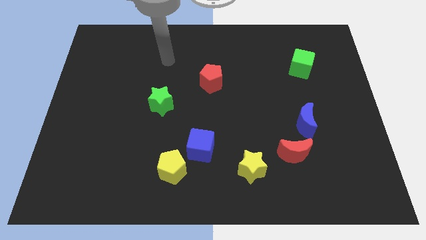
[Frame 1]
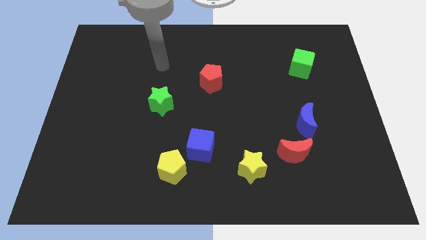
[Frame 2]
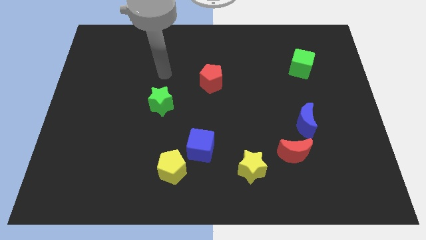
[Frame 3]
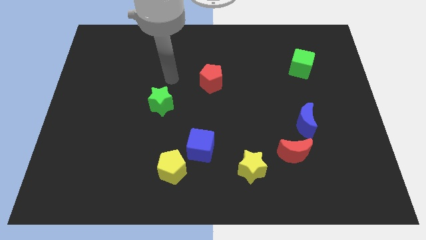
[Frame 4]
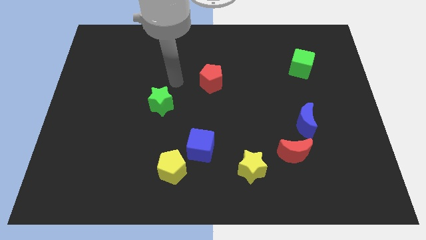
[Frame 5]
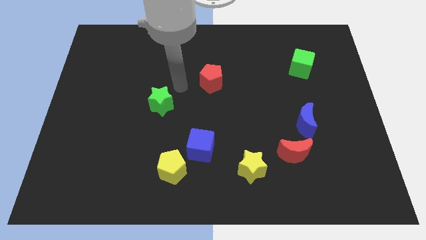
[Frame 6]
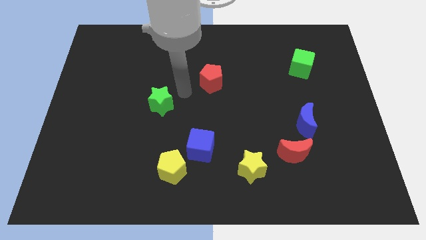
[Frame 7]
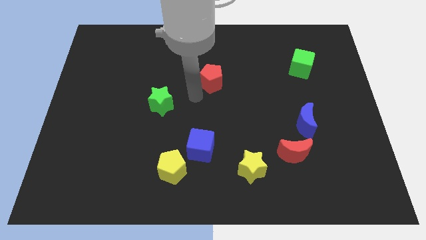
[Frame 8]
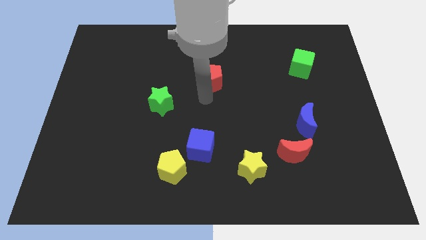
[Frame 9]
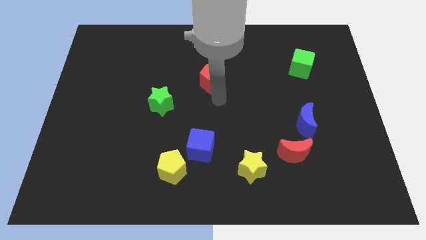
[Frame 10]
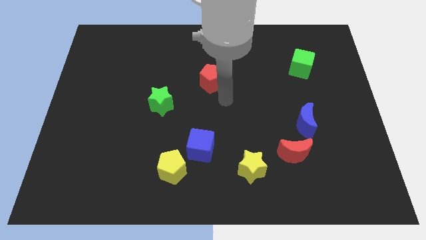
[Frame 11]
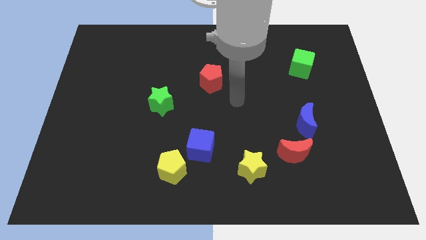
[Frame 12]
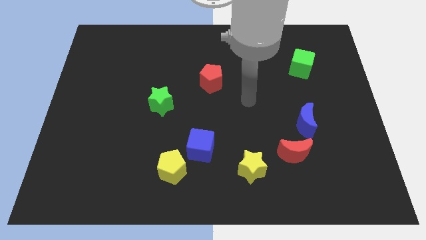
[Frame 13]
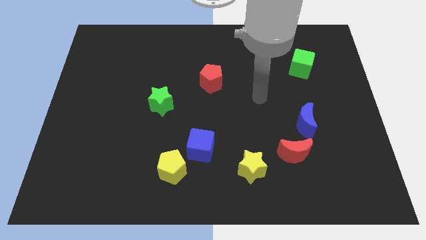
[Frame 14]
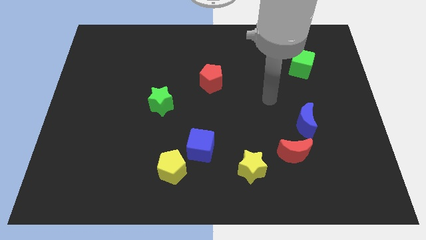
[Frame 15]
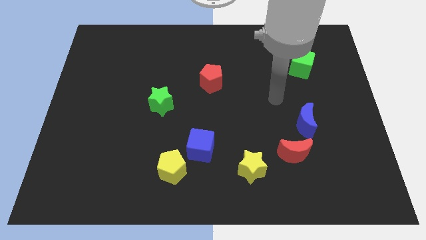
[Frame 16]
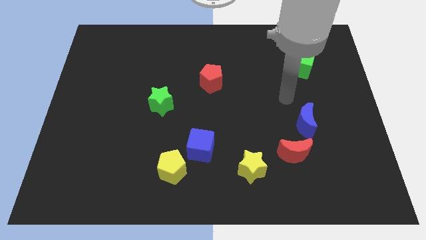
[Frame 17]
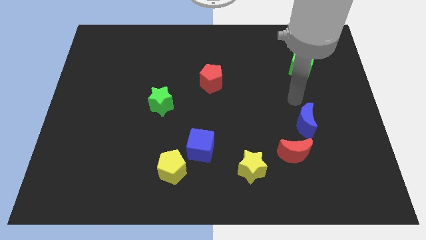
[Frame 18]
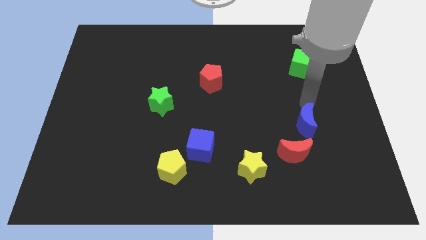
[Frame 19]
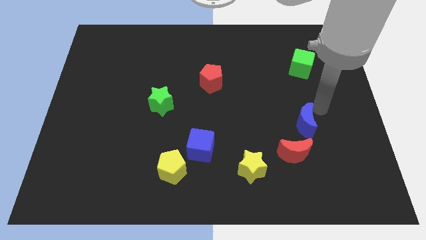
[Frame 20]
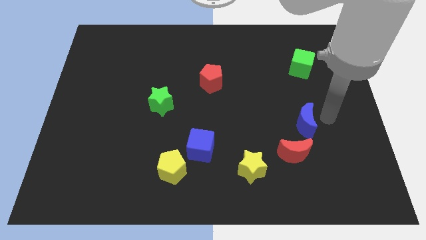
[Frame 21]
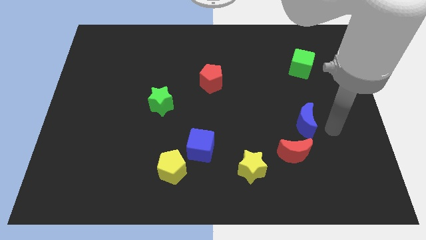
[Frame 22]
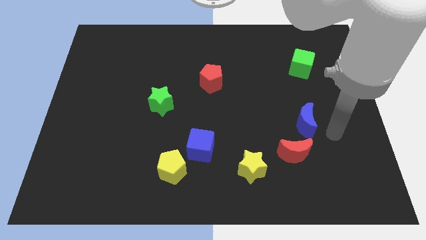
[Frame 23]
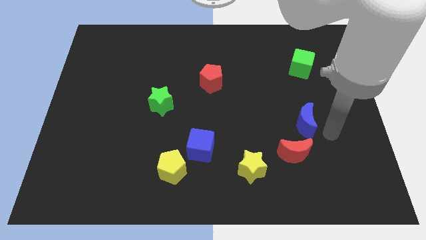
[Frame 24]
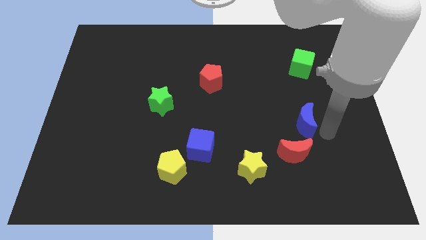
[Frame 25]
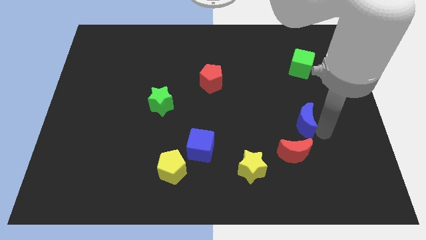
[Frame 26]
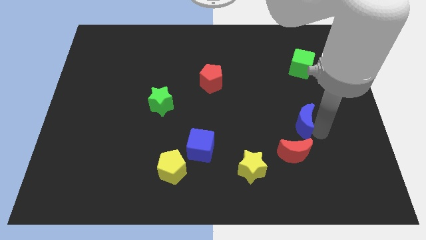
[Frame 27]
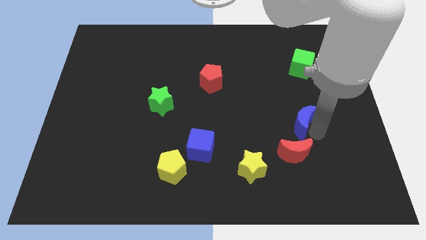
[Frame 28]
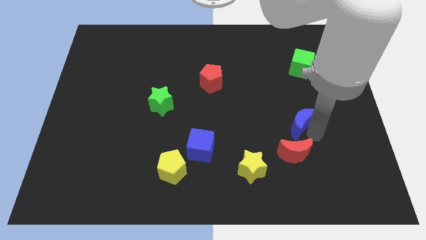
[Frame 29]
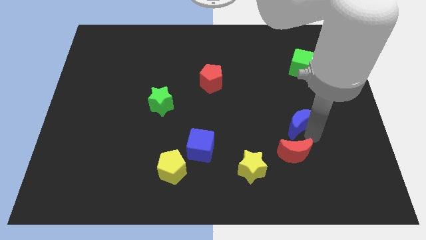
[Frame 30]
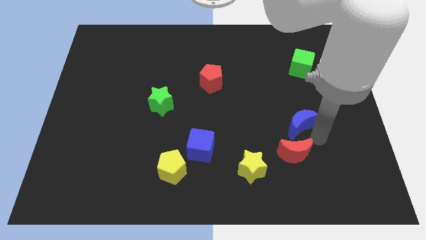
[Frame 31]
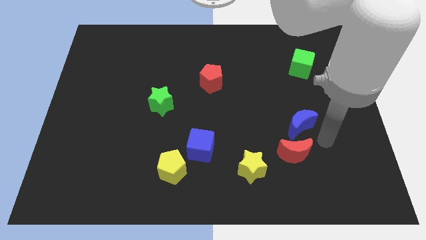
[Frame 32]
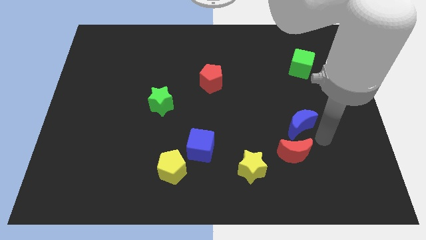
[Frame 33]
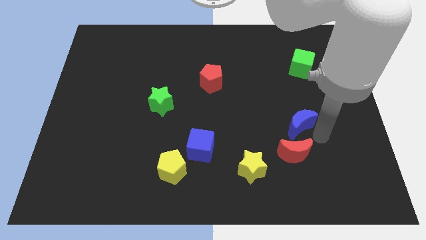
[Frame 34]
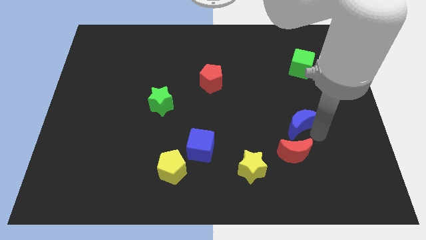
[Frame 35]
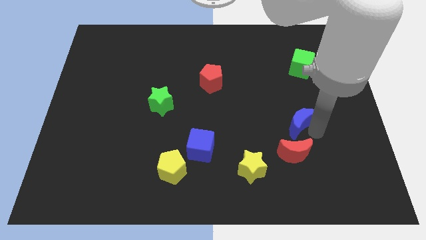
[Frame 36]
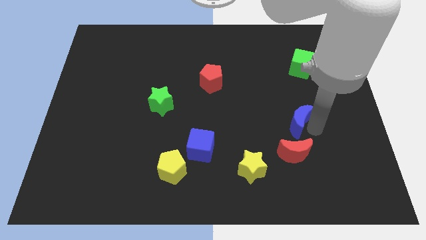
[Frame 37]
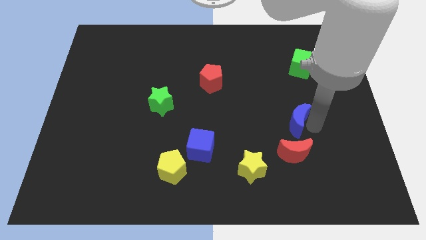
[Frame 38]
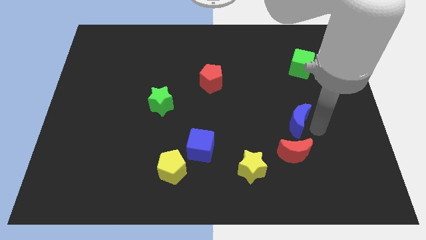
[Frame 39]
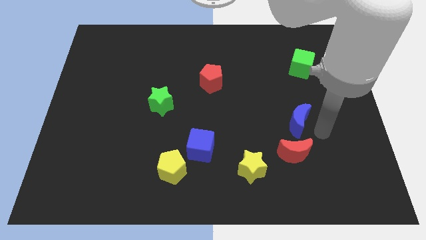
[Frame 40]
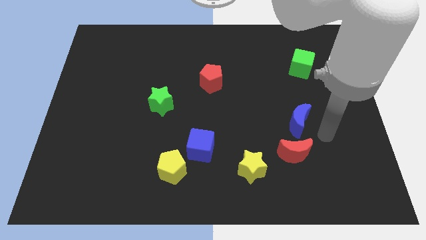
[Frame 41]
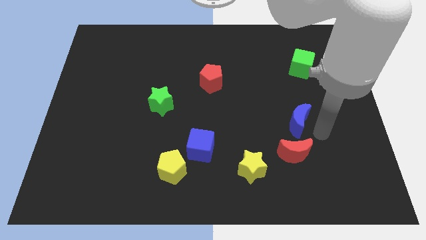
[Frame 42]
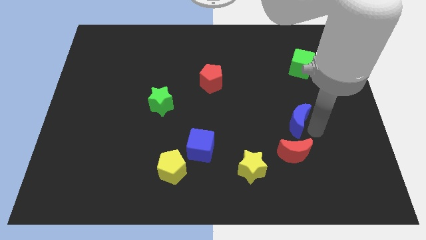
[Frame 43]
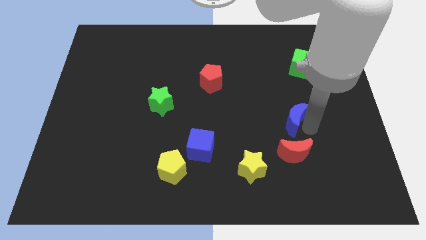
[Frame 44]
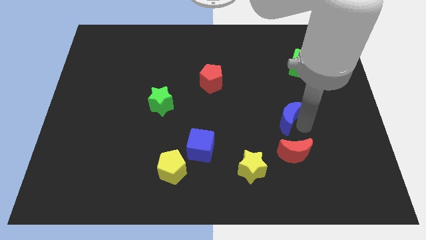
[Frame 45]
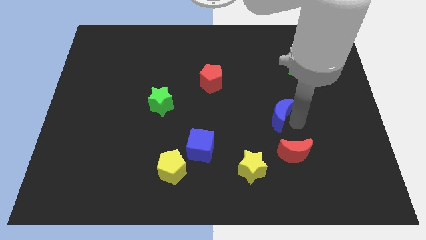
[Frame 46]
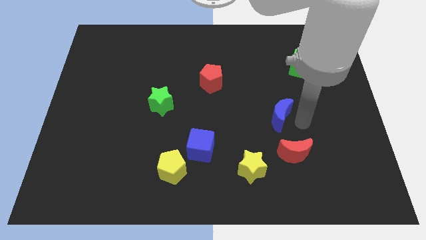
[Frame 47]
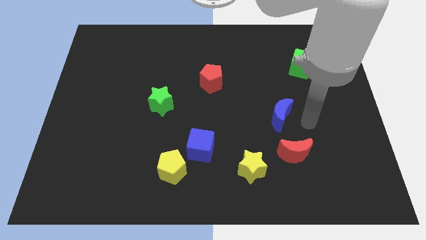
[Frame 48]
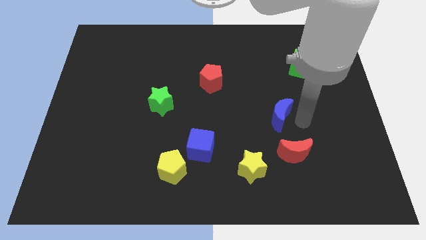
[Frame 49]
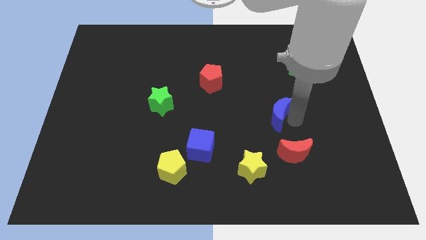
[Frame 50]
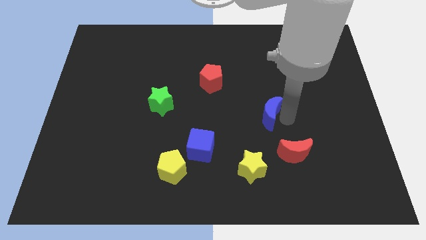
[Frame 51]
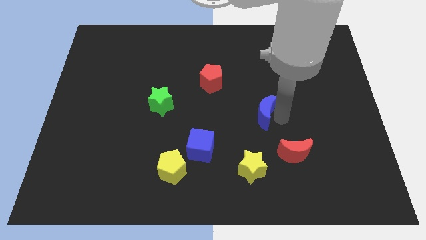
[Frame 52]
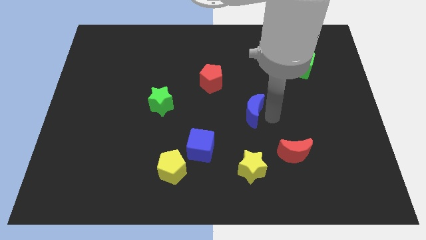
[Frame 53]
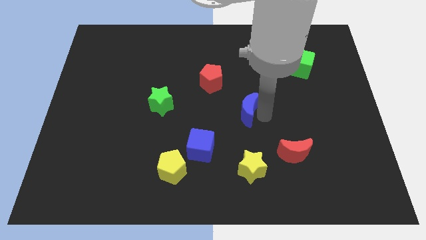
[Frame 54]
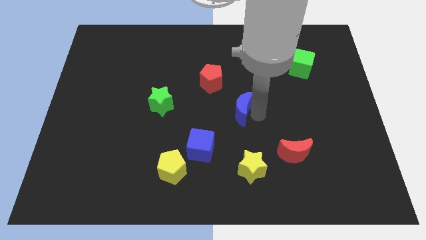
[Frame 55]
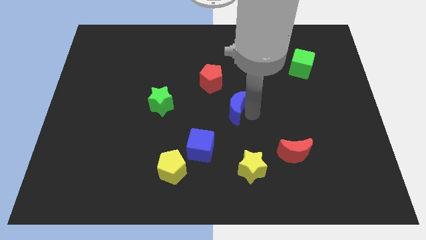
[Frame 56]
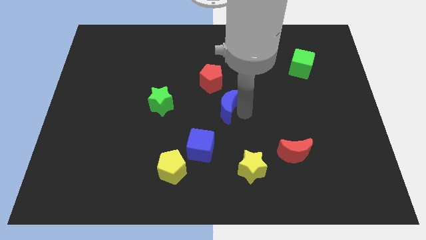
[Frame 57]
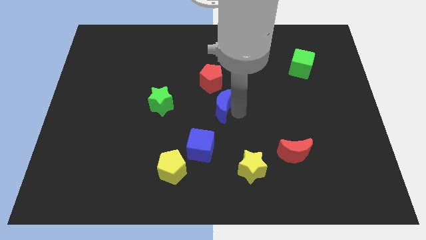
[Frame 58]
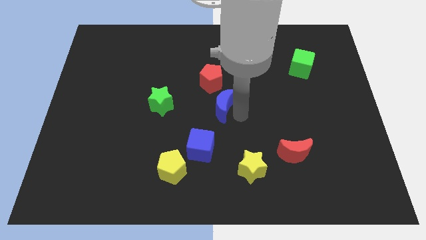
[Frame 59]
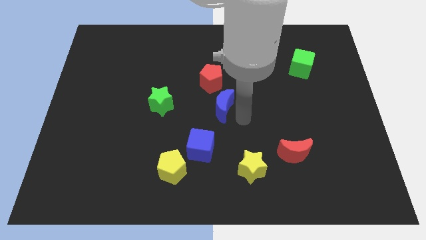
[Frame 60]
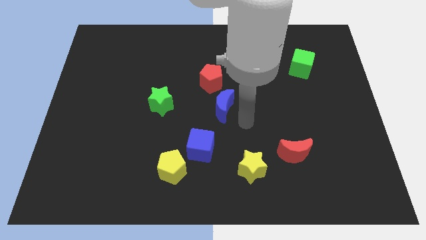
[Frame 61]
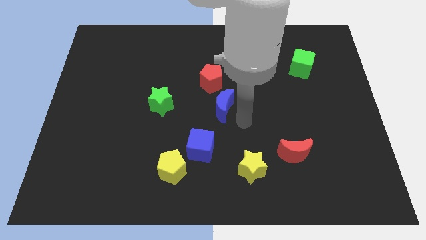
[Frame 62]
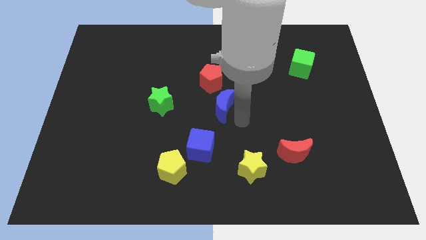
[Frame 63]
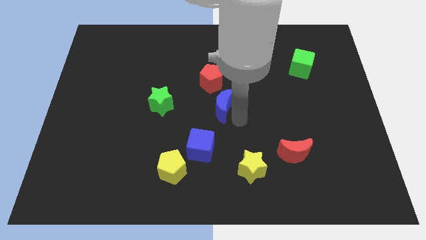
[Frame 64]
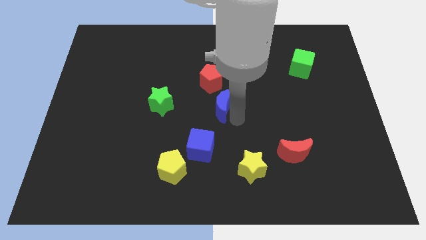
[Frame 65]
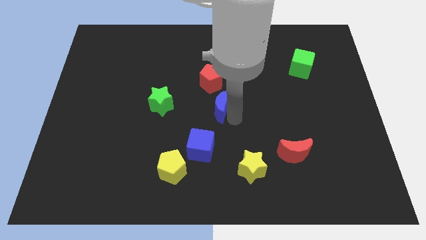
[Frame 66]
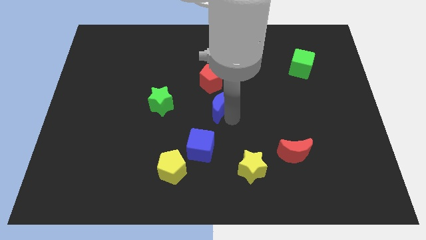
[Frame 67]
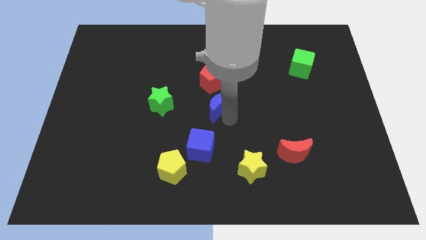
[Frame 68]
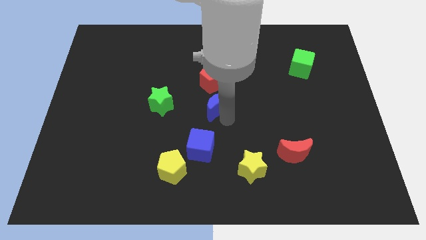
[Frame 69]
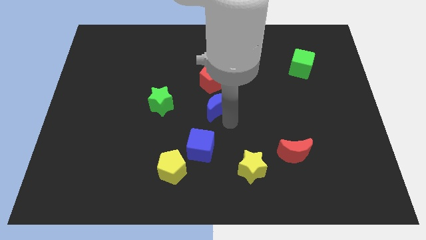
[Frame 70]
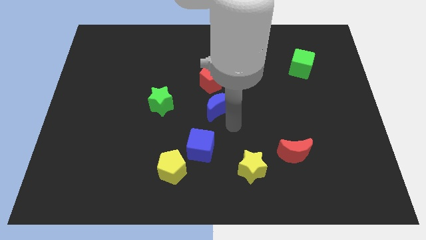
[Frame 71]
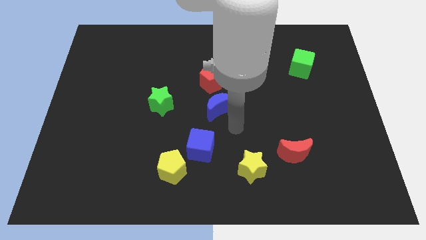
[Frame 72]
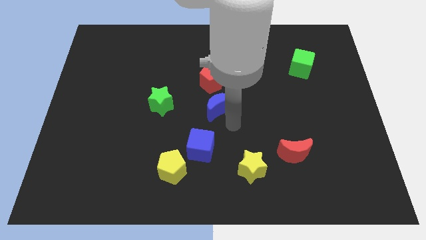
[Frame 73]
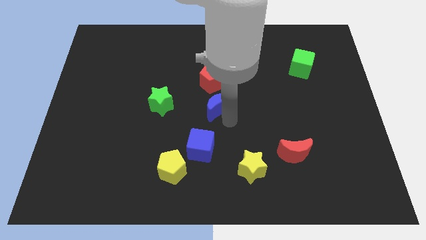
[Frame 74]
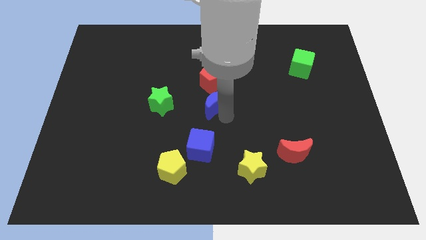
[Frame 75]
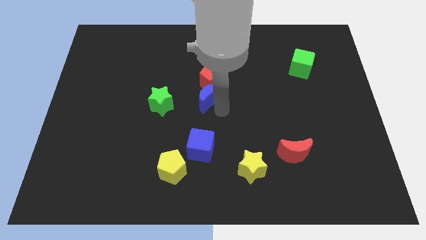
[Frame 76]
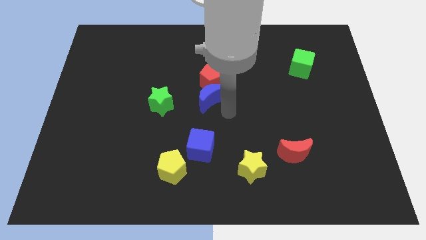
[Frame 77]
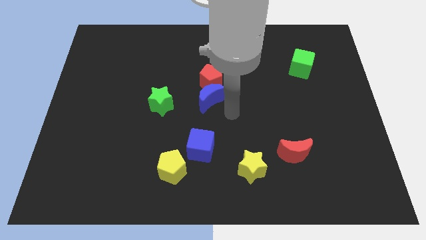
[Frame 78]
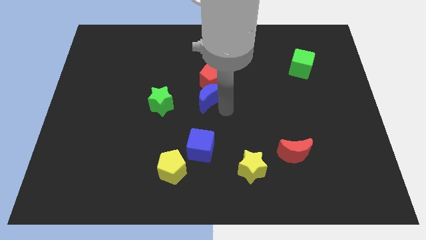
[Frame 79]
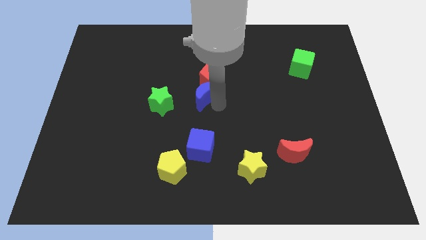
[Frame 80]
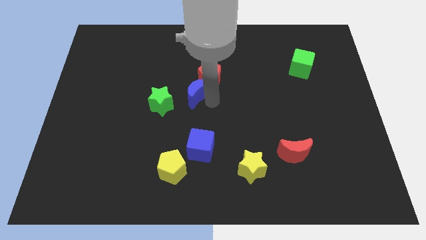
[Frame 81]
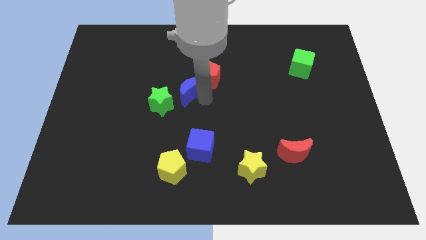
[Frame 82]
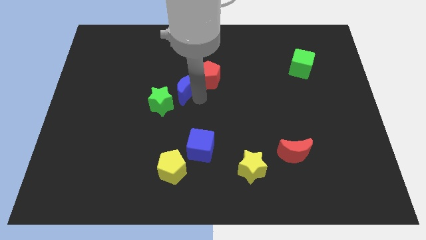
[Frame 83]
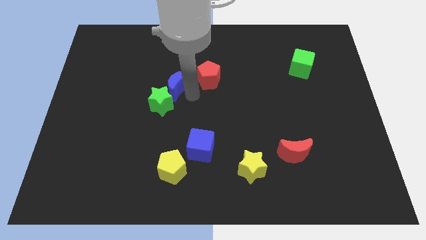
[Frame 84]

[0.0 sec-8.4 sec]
move the blue moon to the top of the green star
